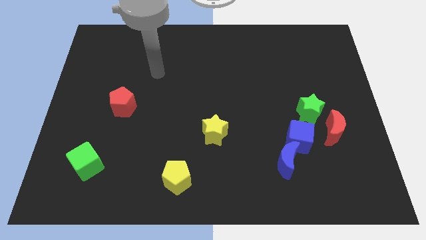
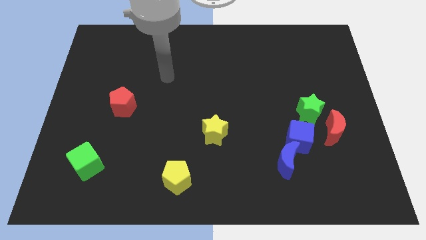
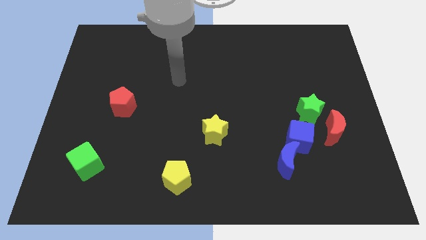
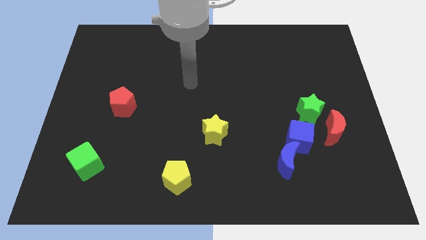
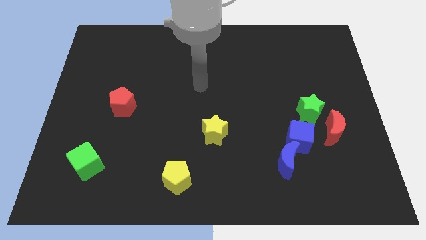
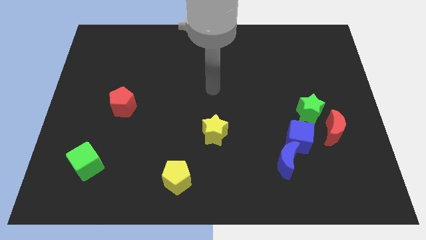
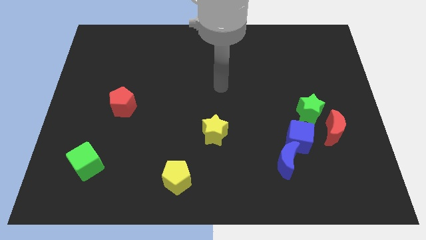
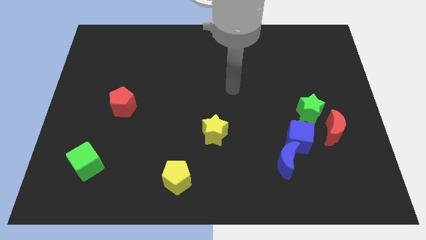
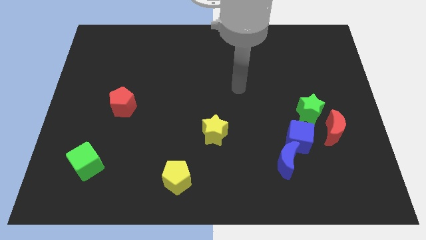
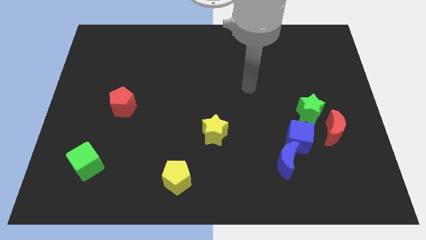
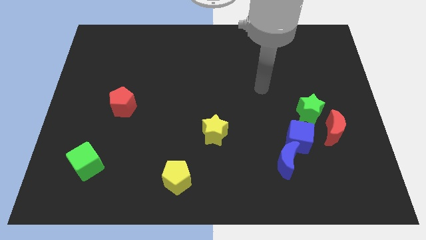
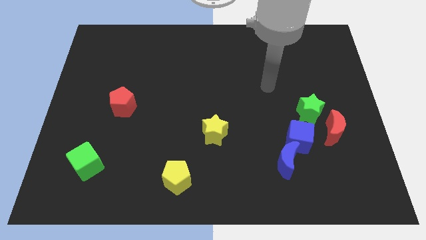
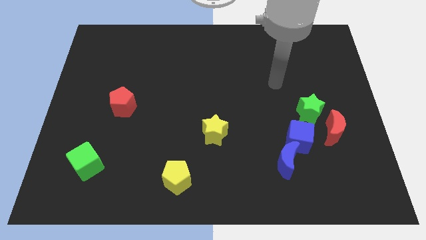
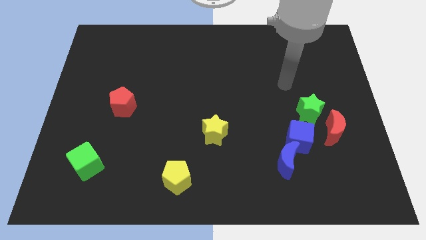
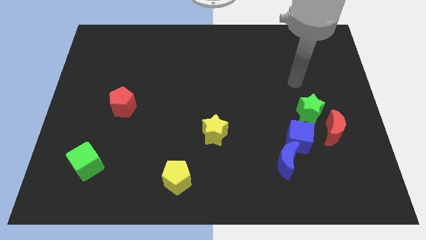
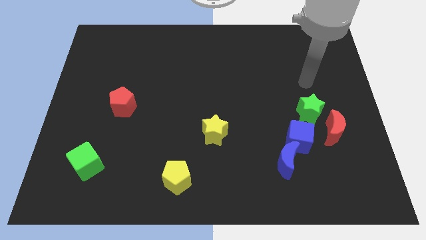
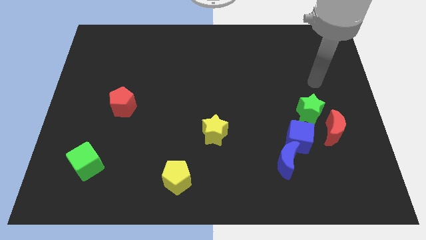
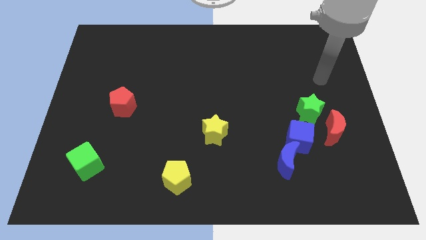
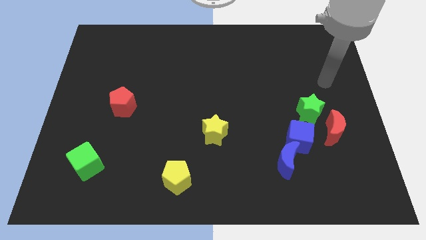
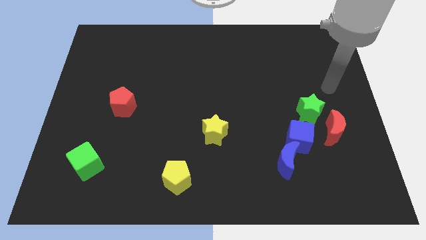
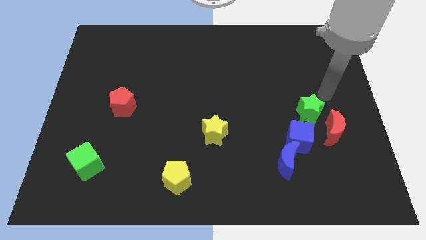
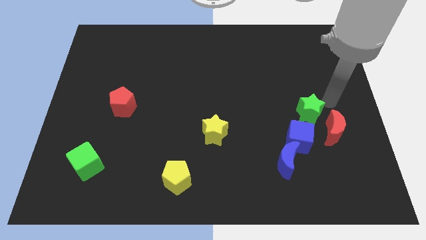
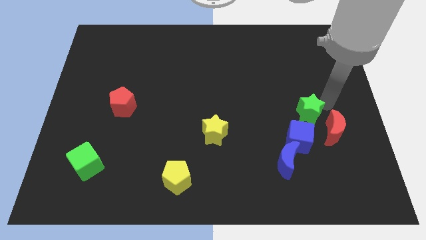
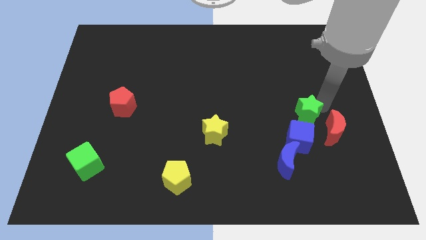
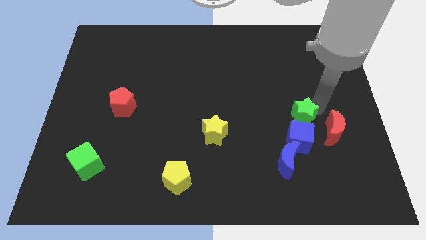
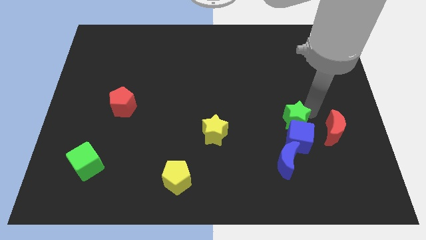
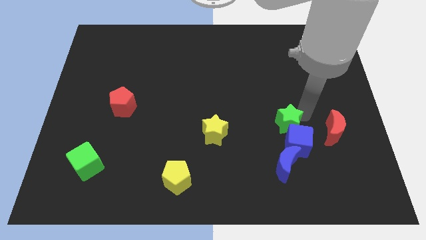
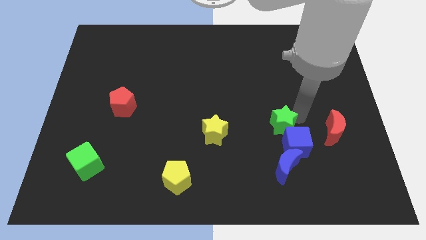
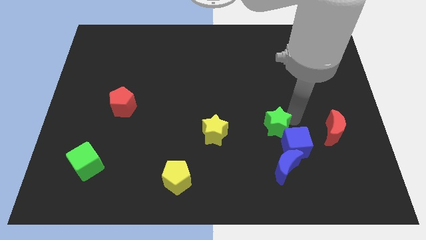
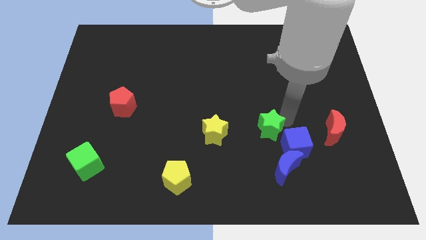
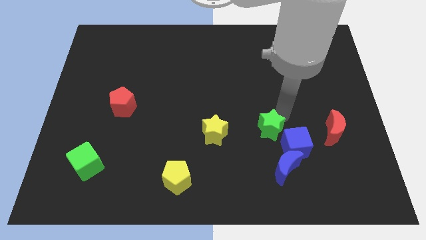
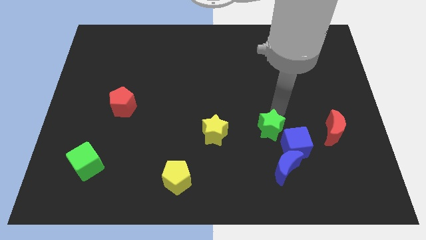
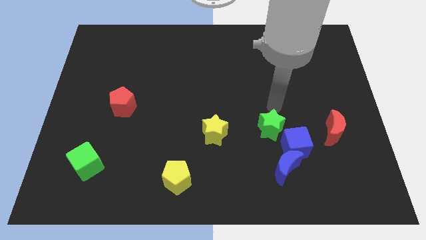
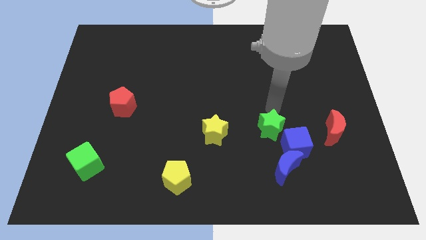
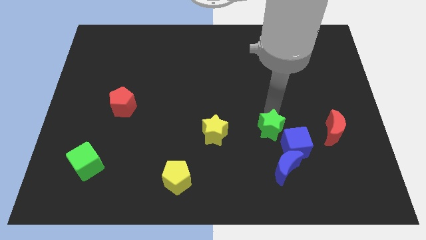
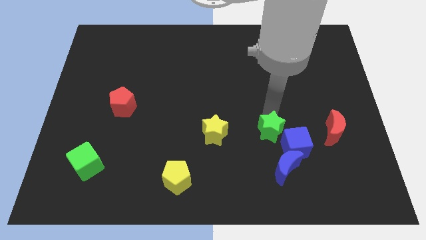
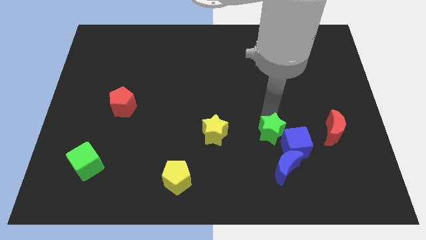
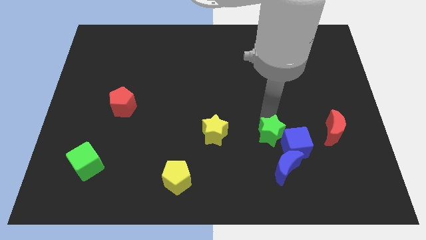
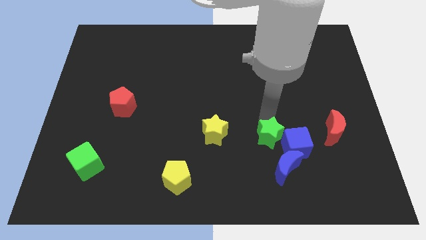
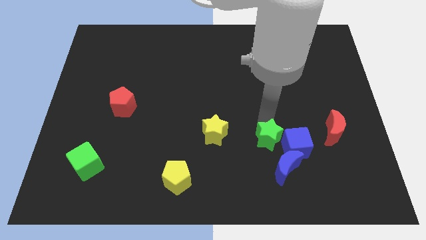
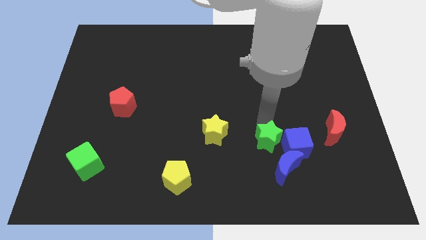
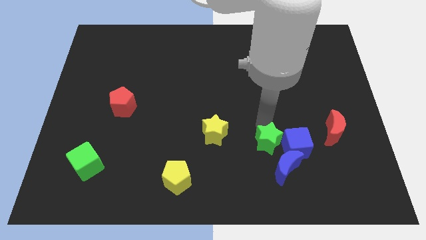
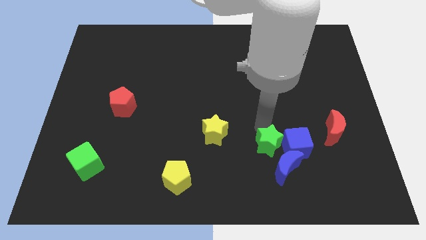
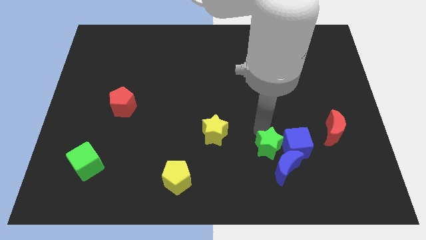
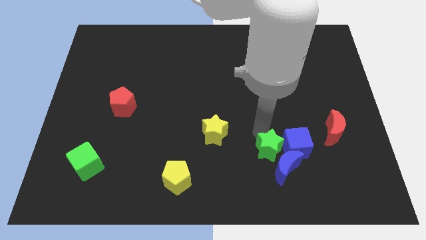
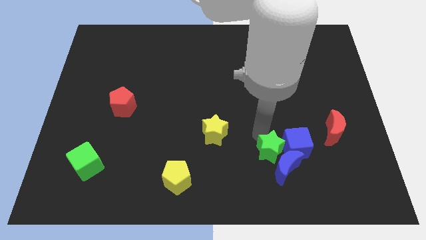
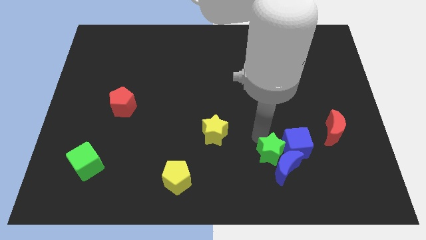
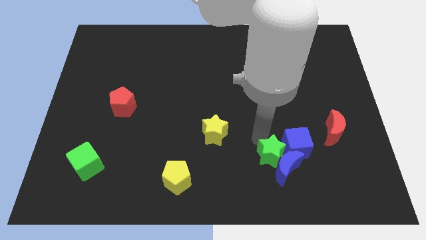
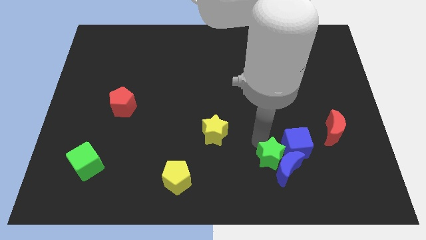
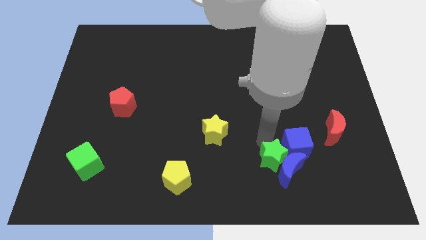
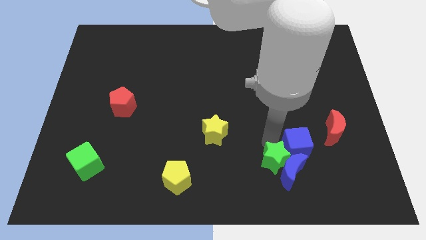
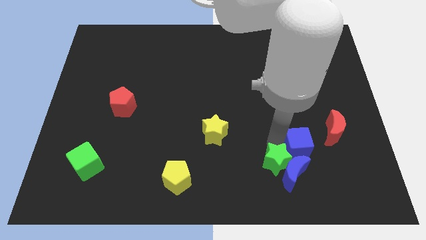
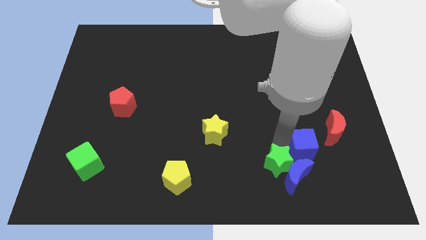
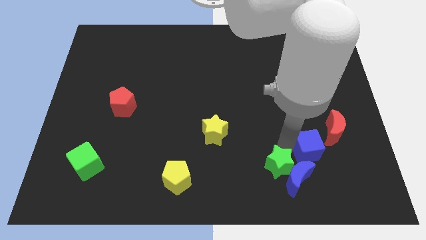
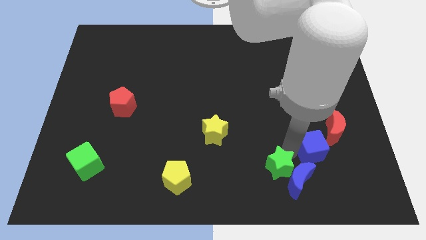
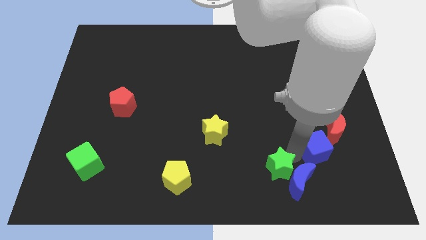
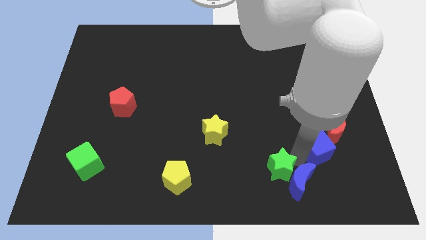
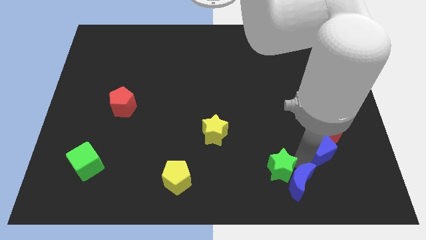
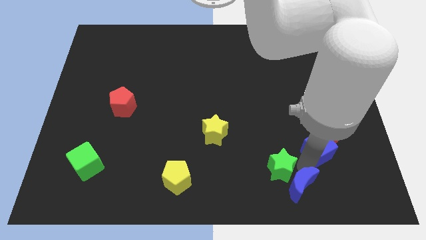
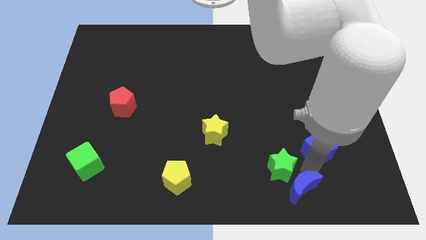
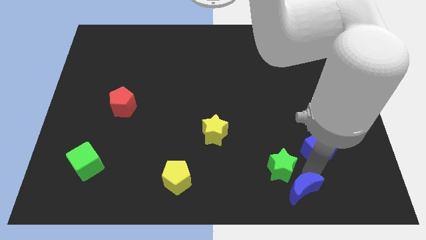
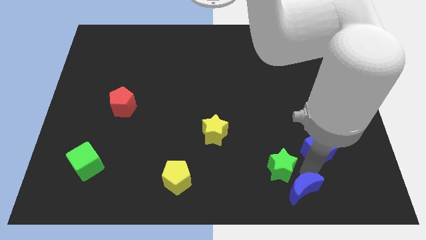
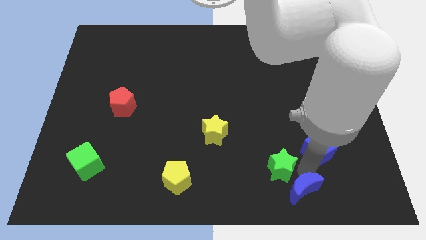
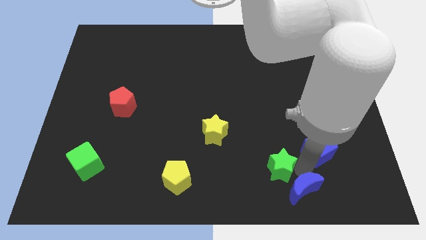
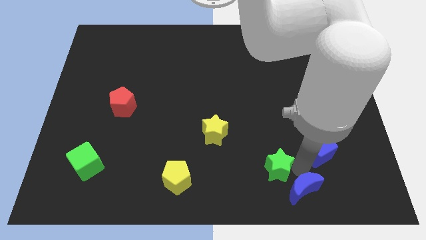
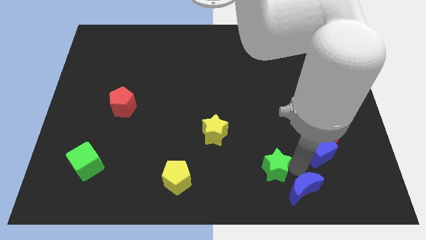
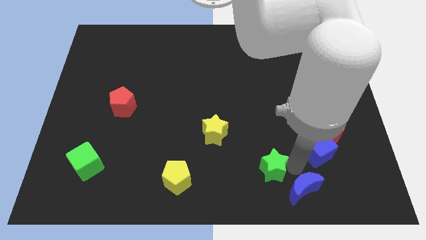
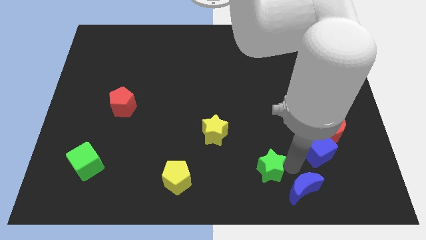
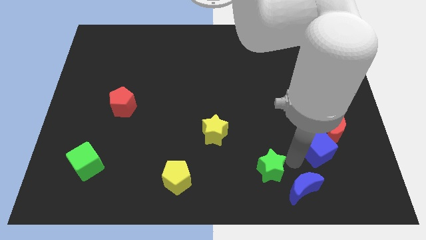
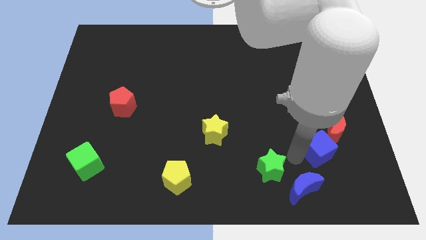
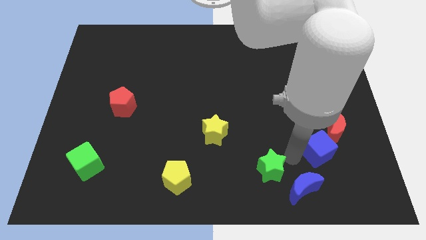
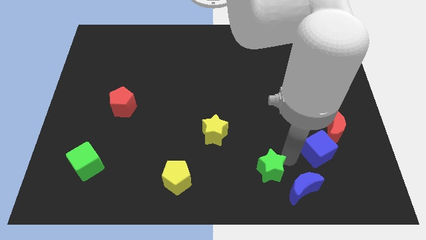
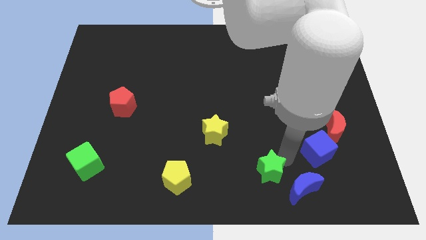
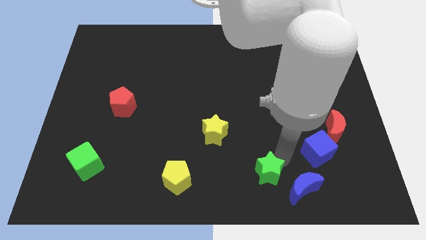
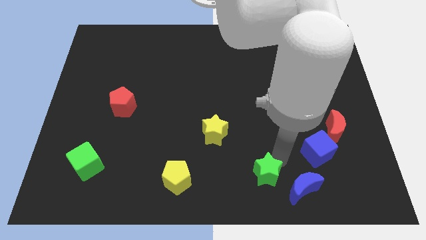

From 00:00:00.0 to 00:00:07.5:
slide the green star to the bottom side
